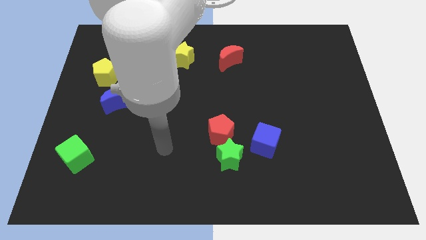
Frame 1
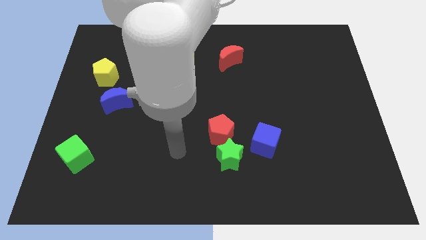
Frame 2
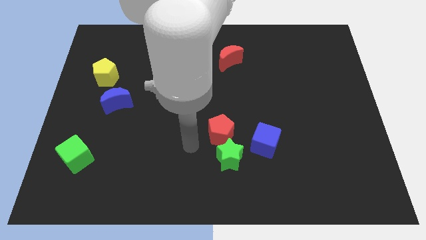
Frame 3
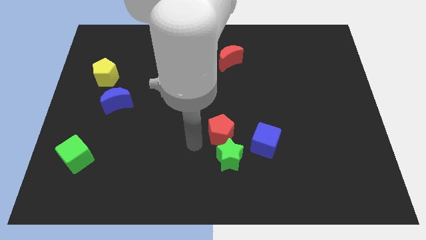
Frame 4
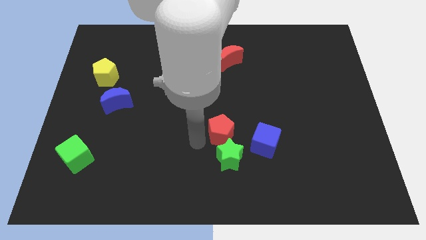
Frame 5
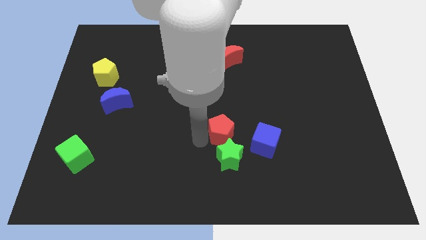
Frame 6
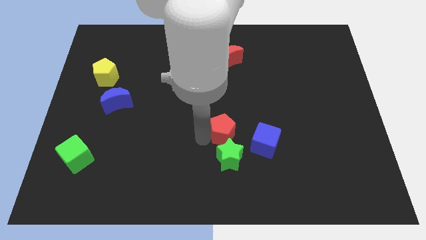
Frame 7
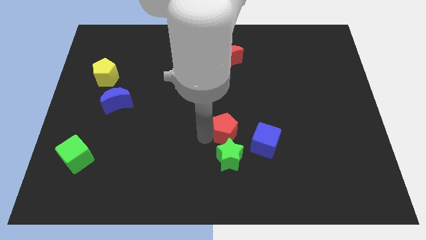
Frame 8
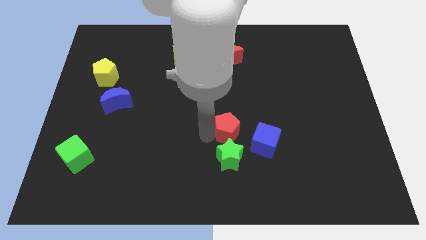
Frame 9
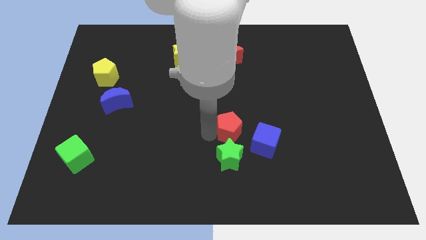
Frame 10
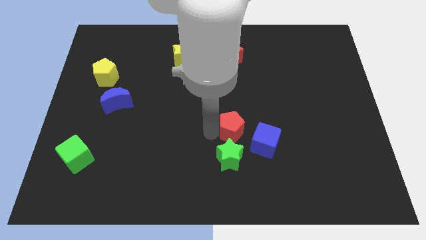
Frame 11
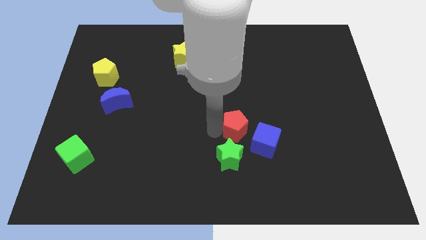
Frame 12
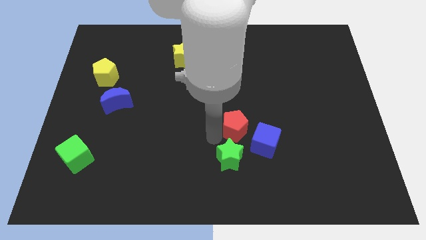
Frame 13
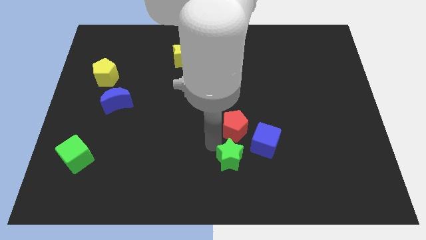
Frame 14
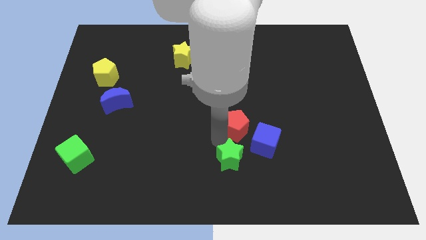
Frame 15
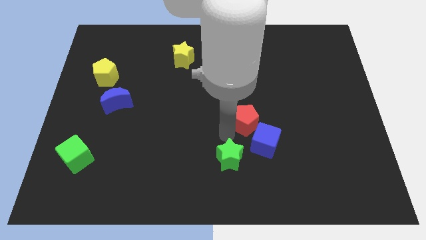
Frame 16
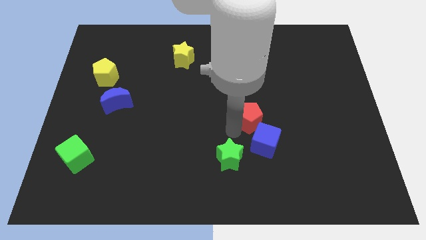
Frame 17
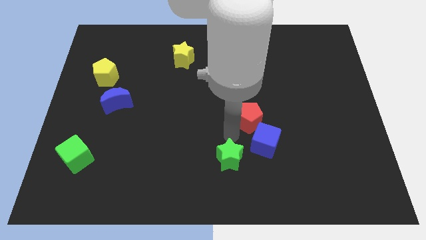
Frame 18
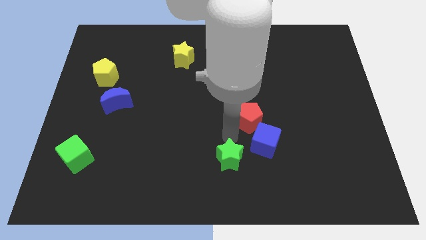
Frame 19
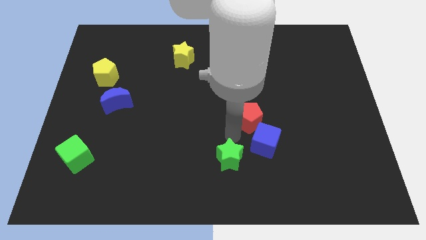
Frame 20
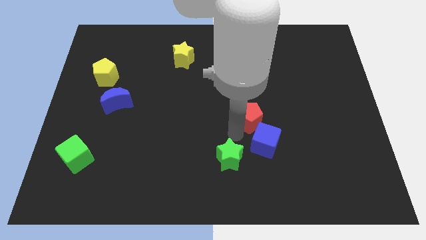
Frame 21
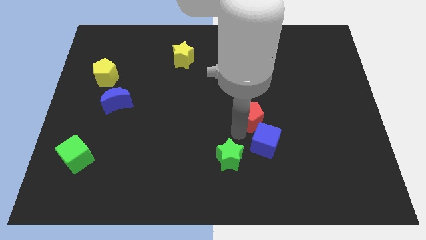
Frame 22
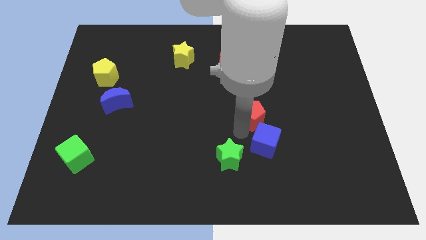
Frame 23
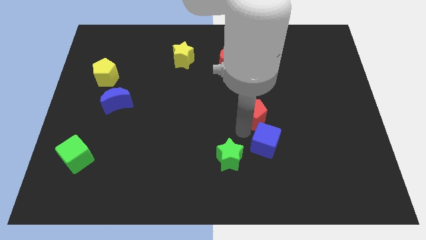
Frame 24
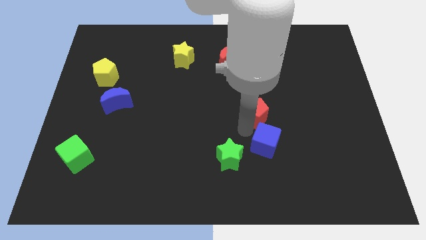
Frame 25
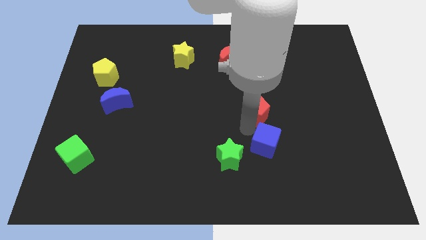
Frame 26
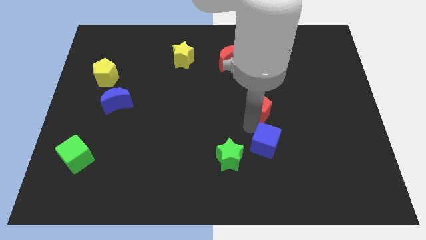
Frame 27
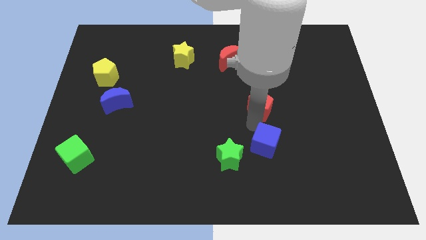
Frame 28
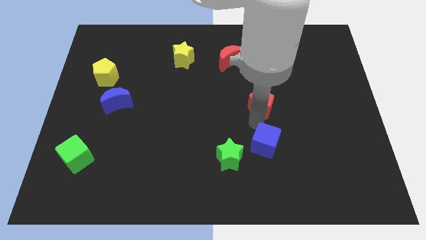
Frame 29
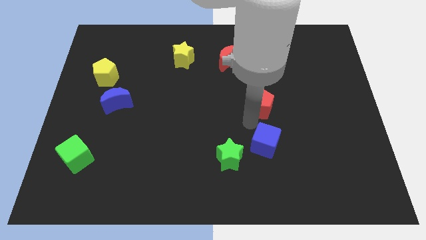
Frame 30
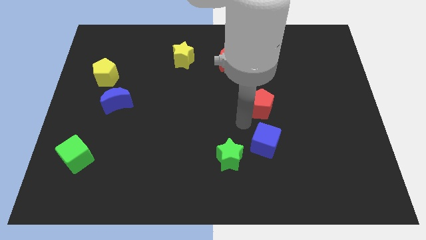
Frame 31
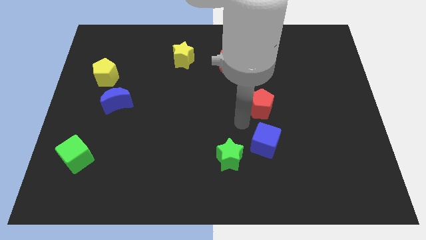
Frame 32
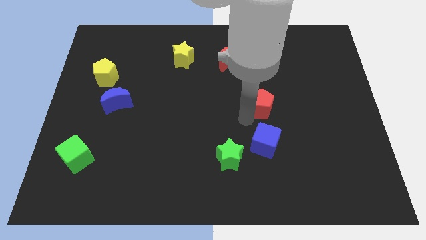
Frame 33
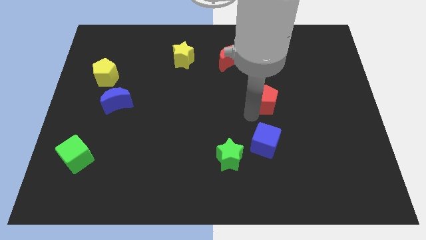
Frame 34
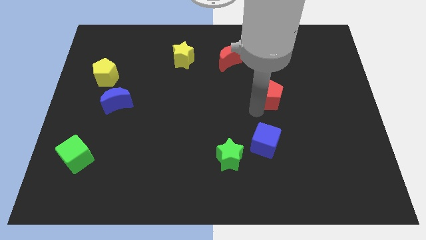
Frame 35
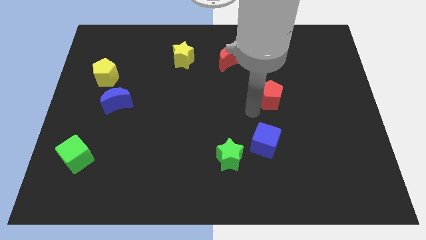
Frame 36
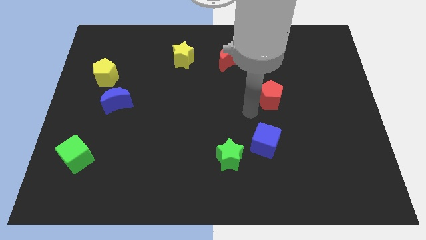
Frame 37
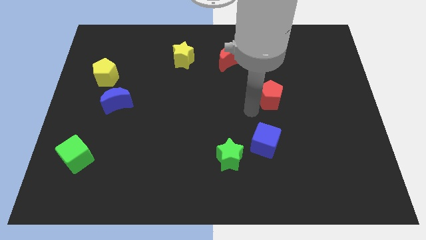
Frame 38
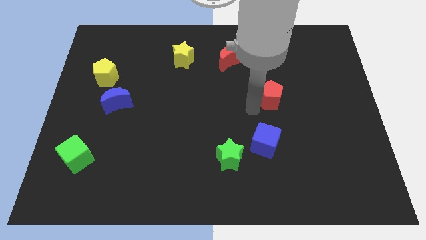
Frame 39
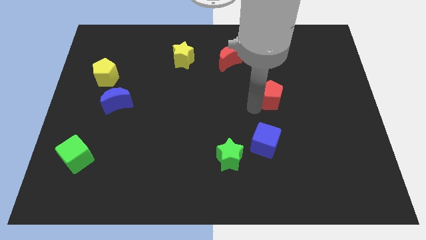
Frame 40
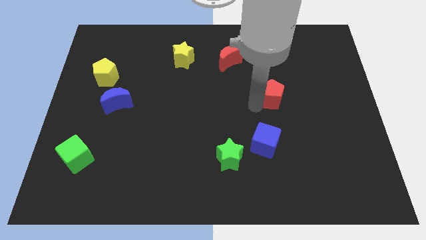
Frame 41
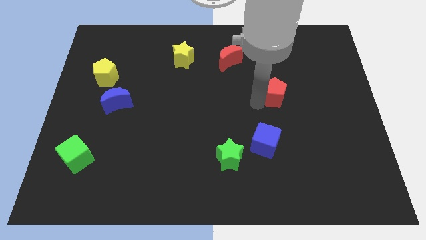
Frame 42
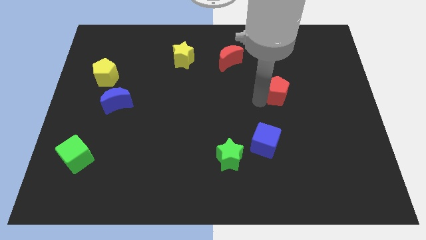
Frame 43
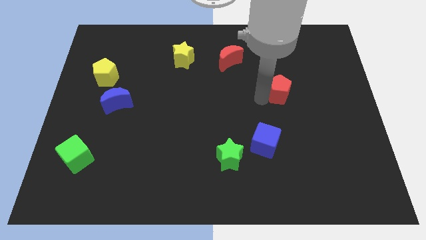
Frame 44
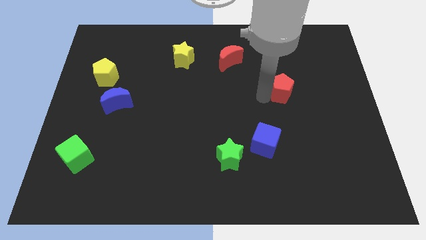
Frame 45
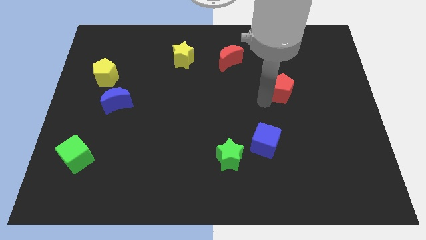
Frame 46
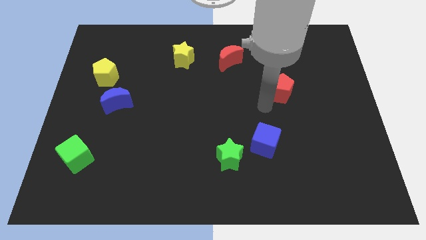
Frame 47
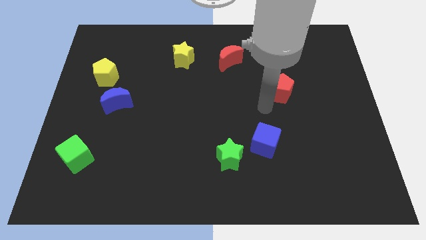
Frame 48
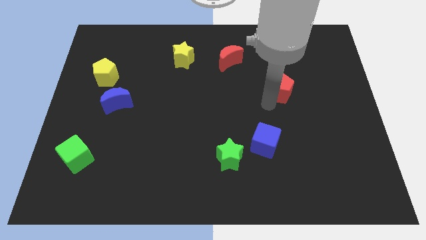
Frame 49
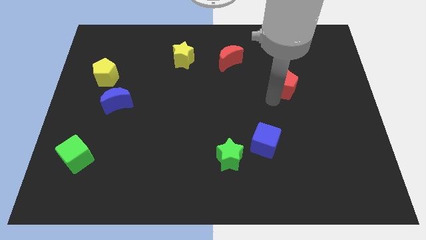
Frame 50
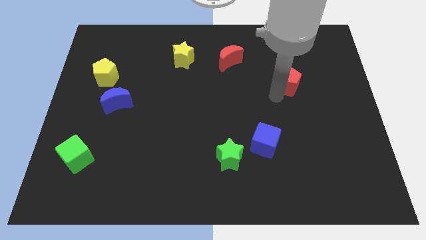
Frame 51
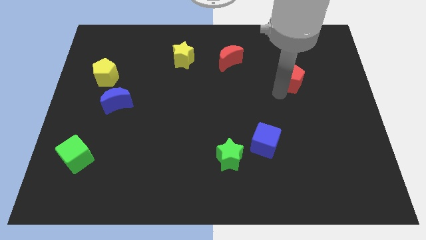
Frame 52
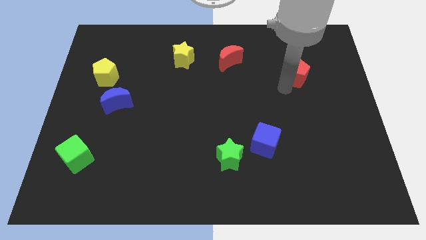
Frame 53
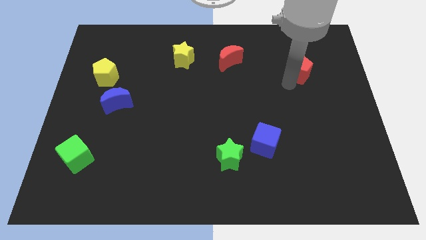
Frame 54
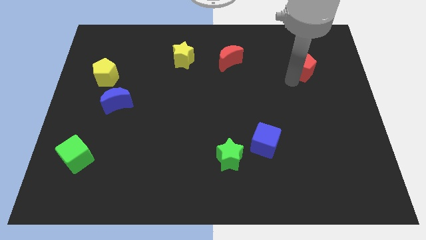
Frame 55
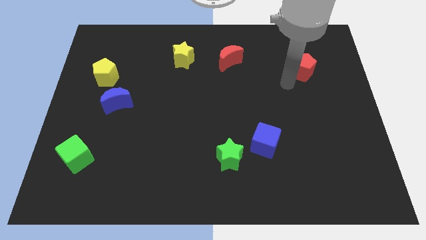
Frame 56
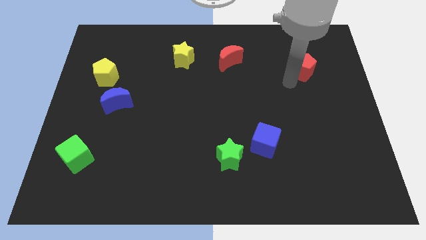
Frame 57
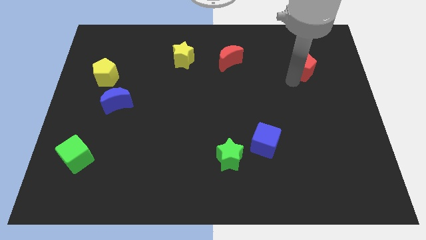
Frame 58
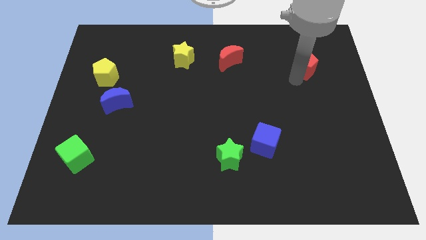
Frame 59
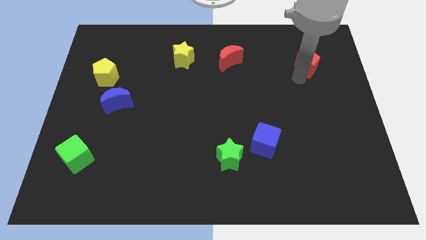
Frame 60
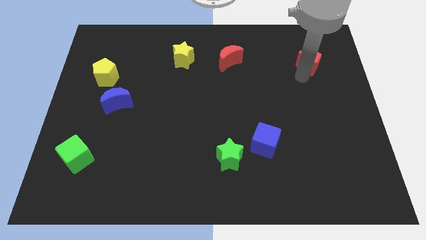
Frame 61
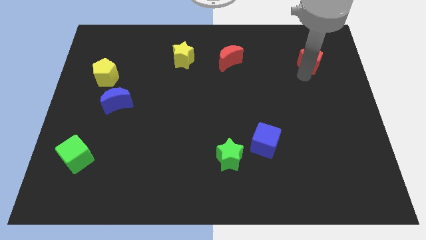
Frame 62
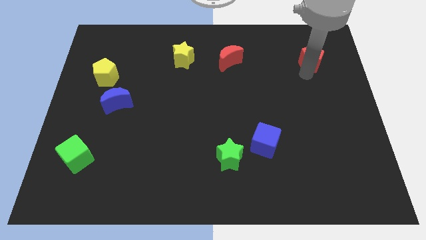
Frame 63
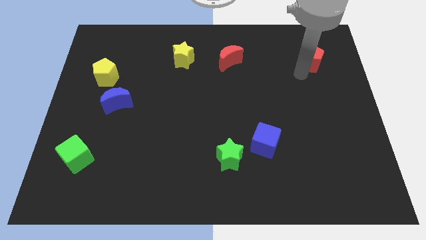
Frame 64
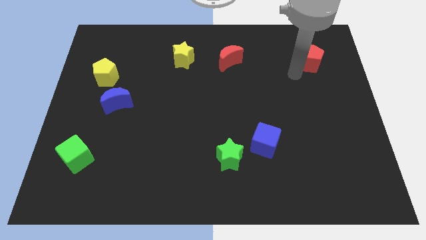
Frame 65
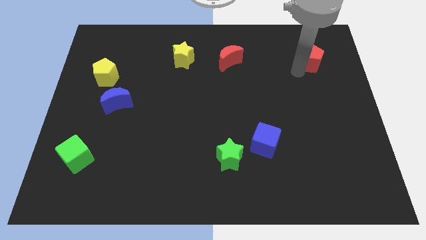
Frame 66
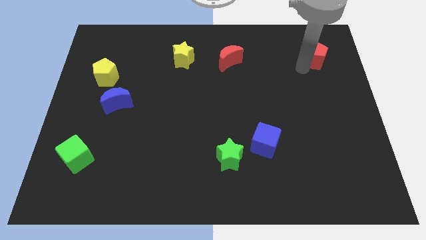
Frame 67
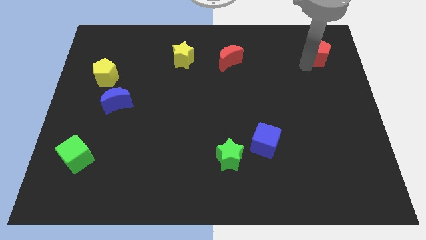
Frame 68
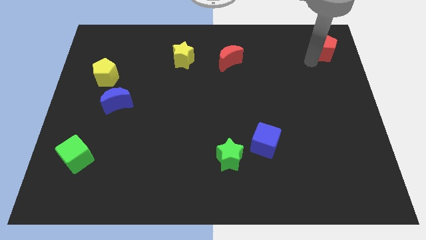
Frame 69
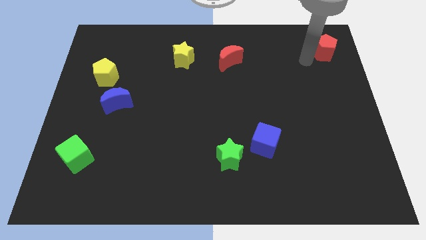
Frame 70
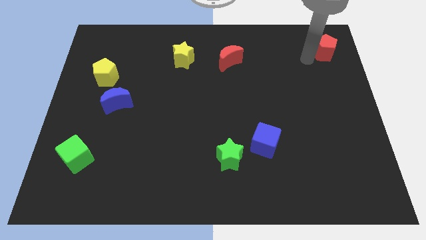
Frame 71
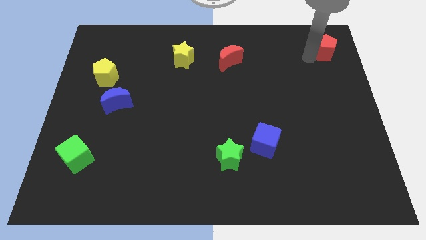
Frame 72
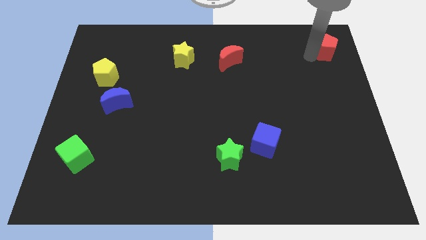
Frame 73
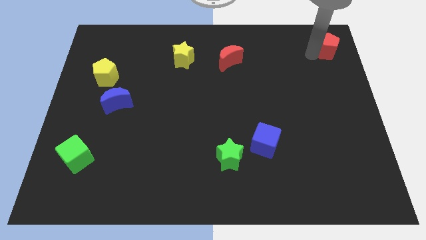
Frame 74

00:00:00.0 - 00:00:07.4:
push the red pentagon to the top right of the board
